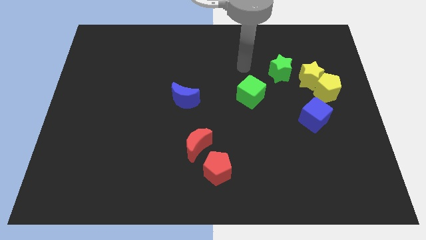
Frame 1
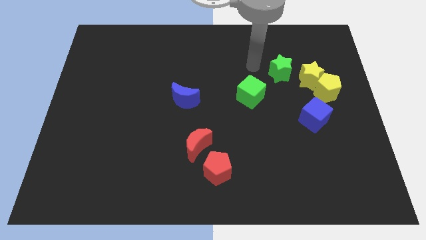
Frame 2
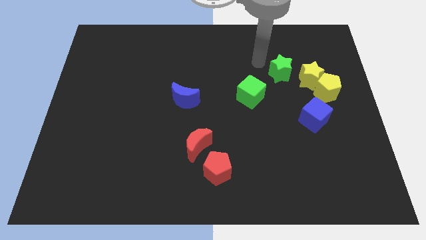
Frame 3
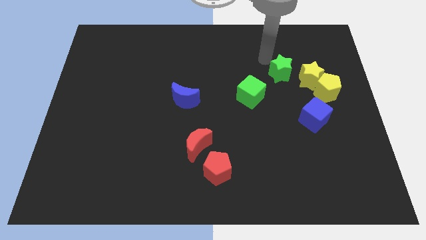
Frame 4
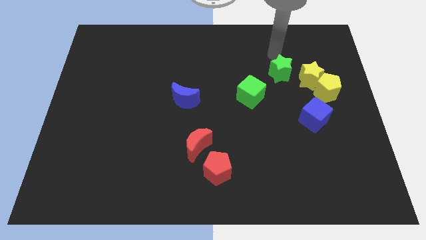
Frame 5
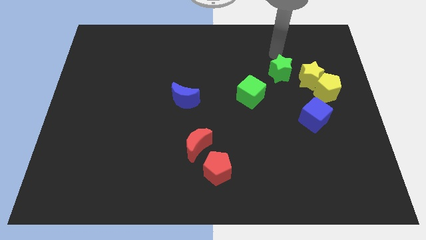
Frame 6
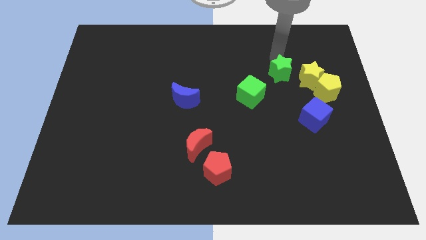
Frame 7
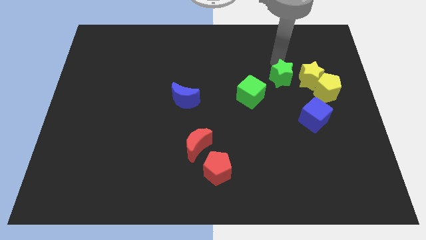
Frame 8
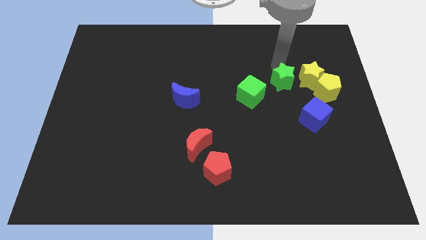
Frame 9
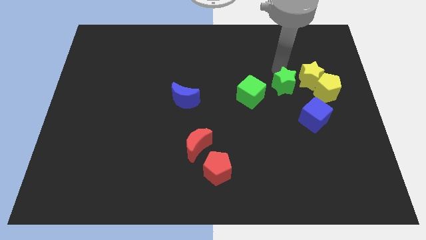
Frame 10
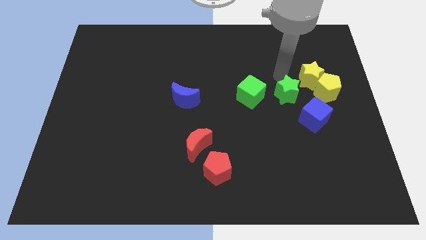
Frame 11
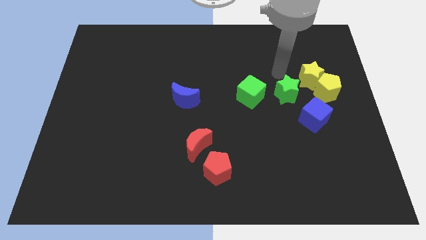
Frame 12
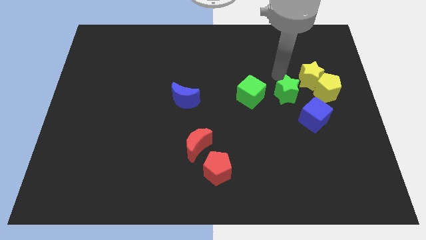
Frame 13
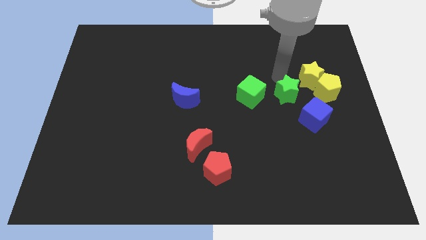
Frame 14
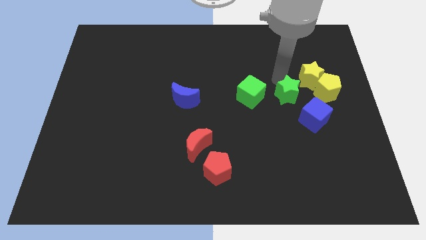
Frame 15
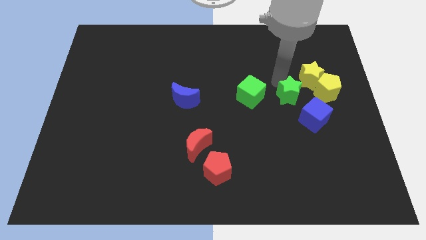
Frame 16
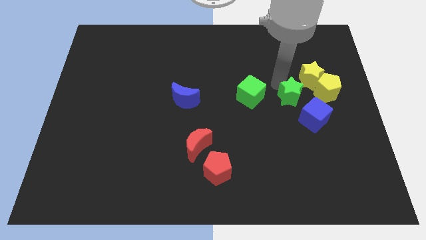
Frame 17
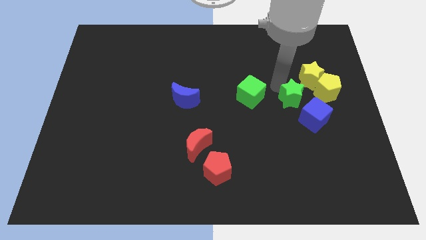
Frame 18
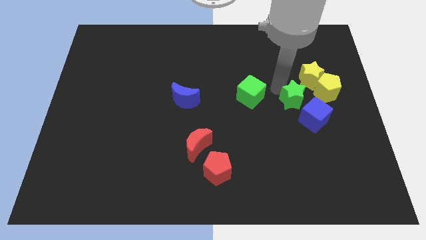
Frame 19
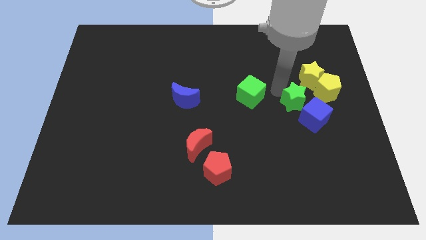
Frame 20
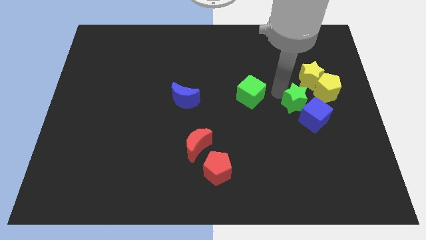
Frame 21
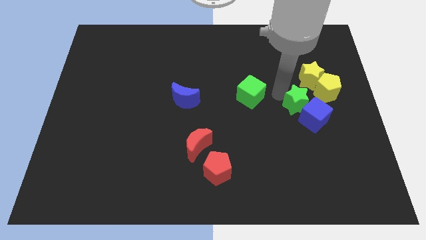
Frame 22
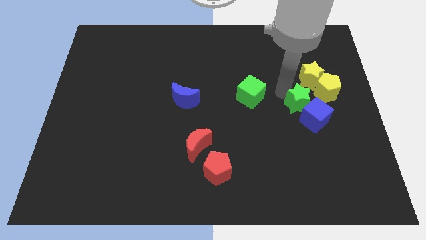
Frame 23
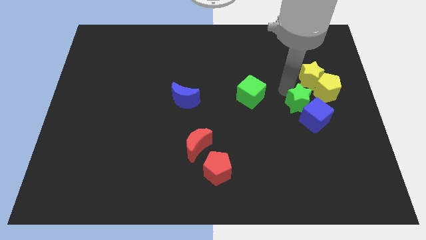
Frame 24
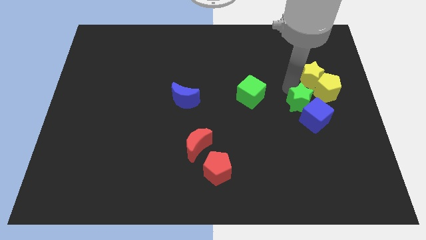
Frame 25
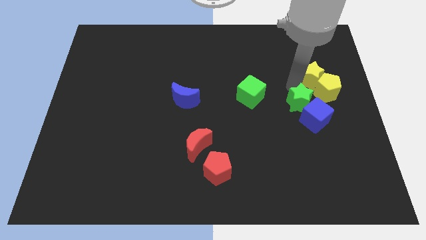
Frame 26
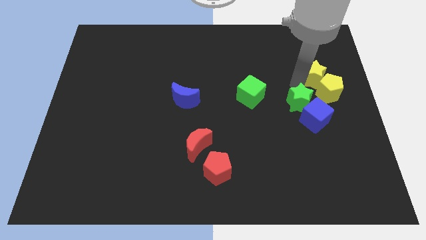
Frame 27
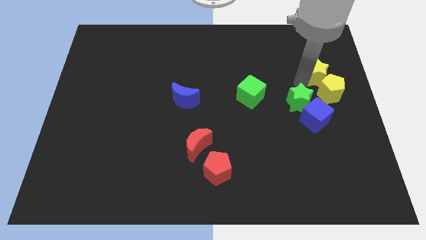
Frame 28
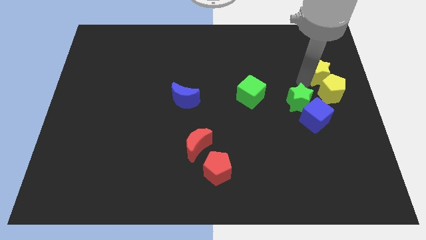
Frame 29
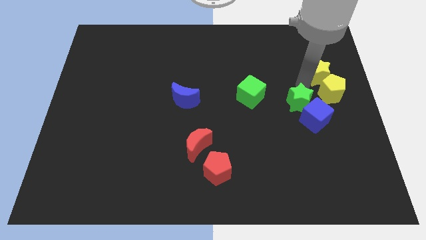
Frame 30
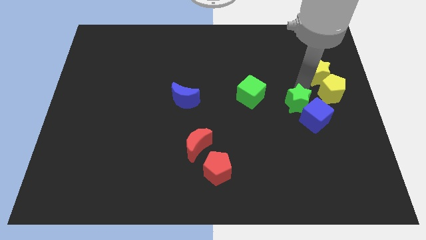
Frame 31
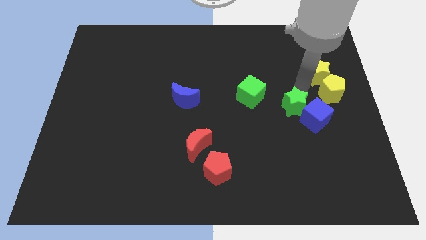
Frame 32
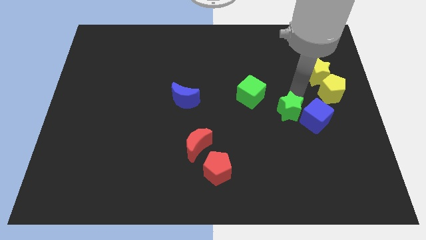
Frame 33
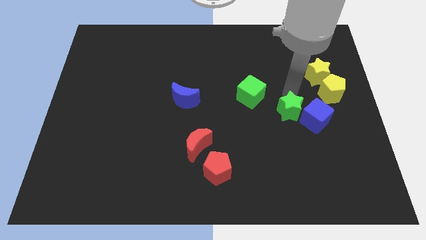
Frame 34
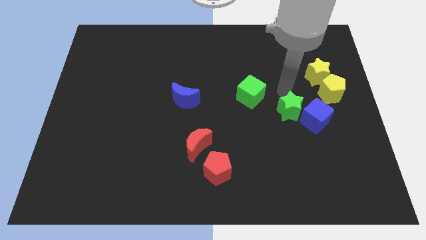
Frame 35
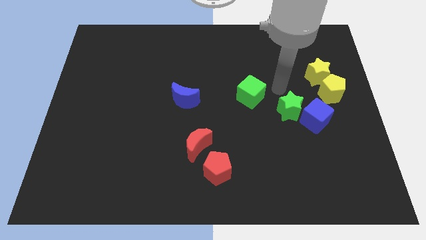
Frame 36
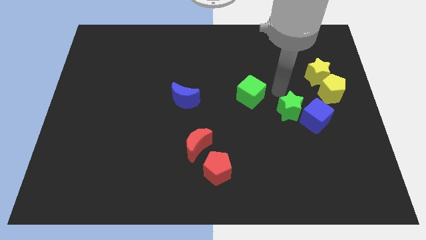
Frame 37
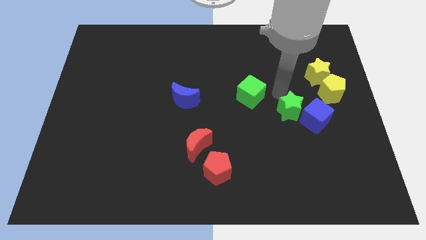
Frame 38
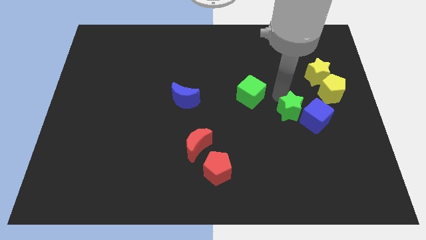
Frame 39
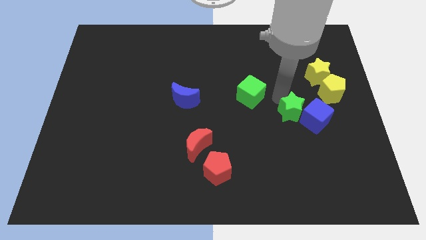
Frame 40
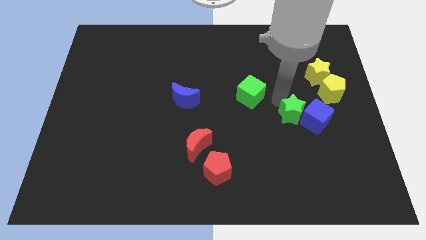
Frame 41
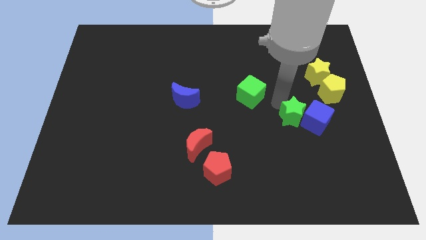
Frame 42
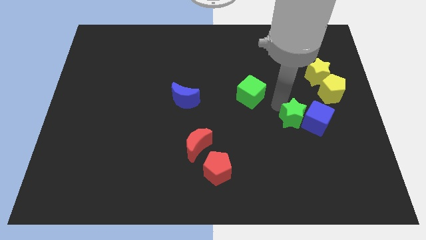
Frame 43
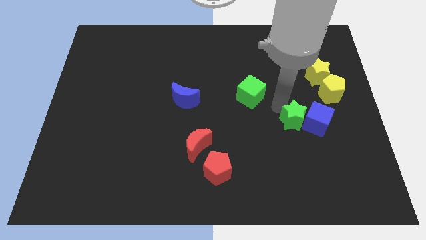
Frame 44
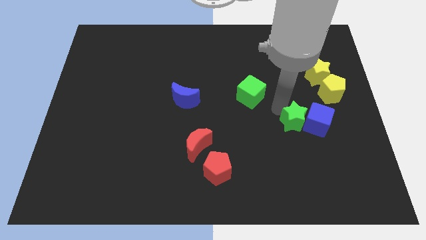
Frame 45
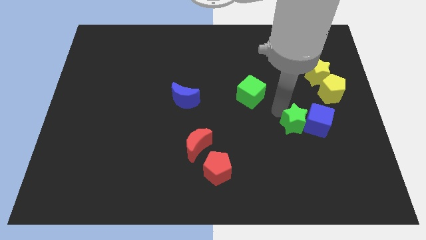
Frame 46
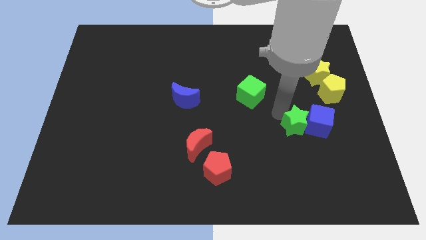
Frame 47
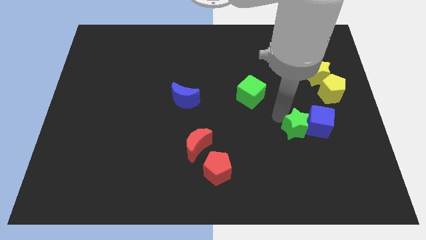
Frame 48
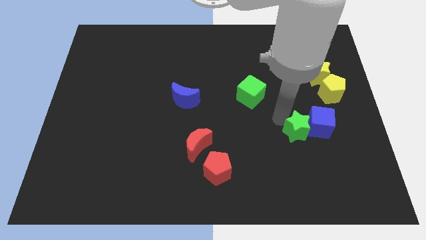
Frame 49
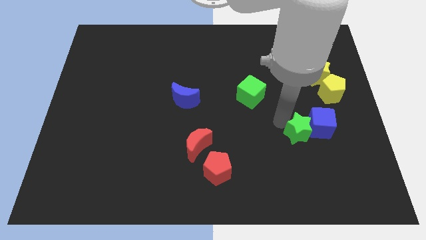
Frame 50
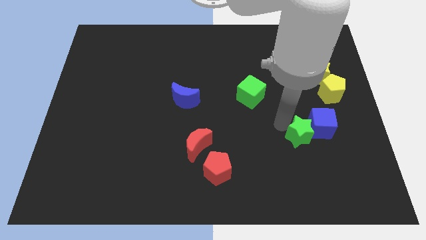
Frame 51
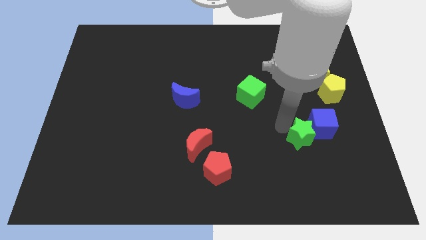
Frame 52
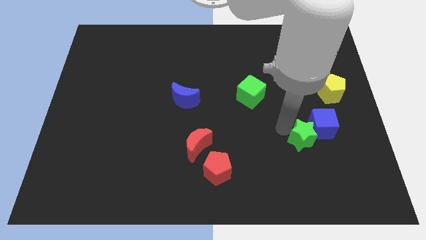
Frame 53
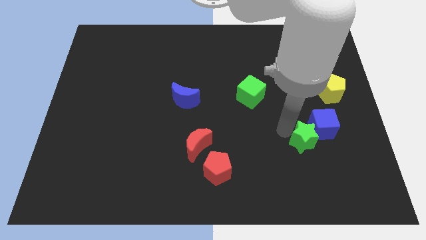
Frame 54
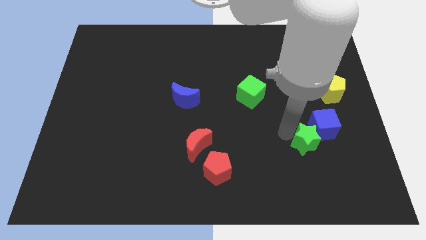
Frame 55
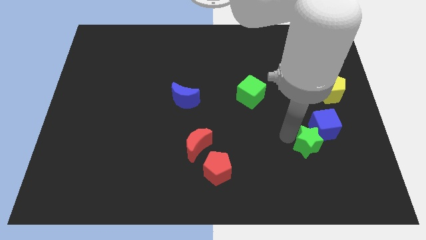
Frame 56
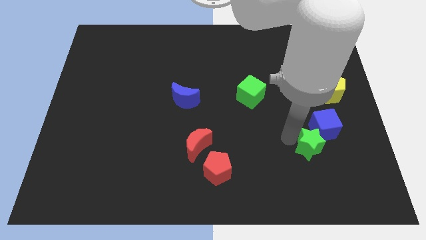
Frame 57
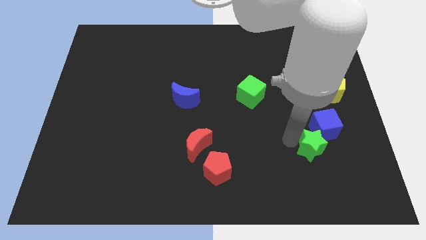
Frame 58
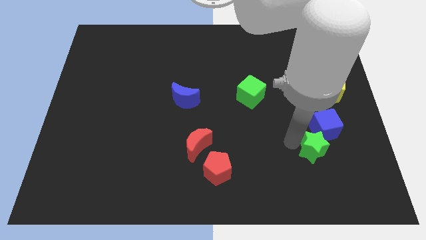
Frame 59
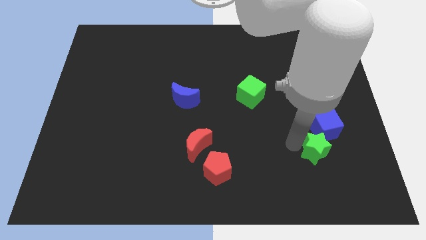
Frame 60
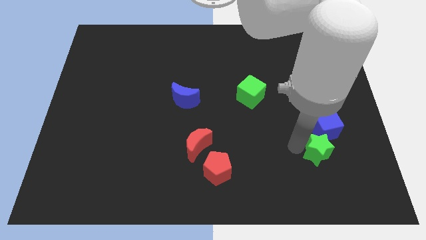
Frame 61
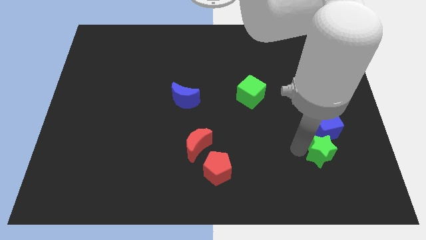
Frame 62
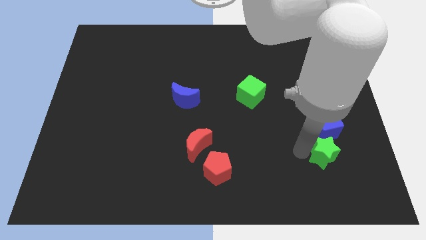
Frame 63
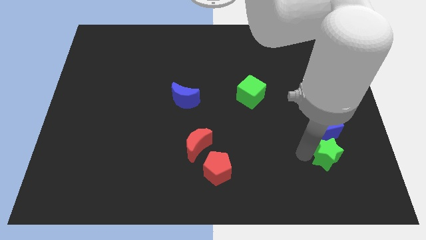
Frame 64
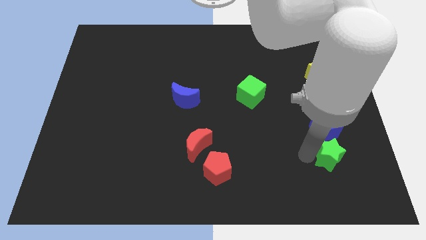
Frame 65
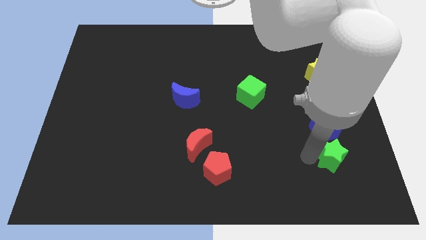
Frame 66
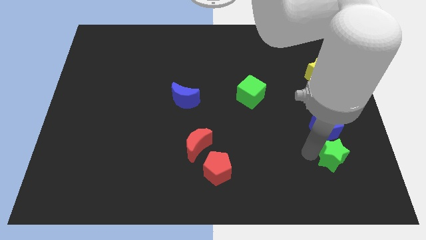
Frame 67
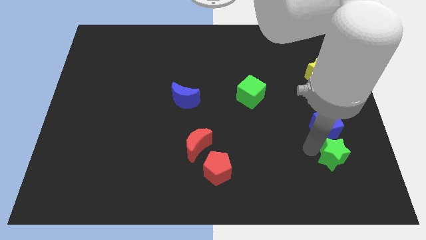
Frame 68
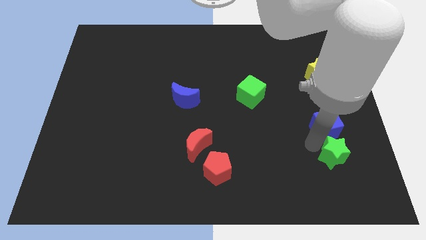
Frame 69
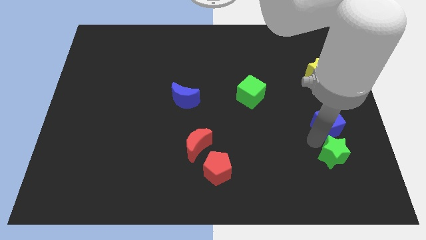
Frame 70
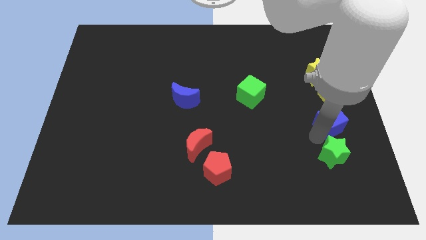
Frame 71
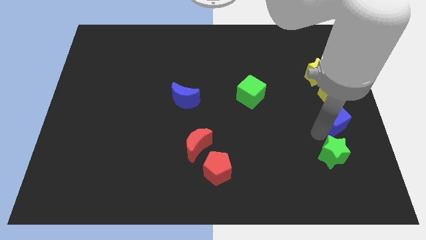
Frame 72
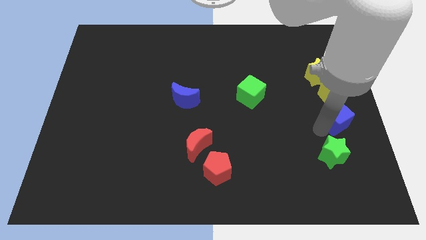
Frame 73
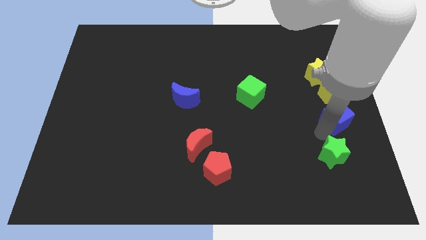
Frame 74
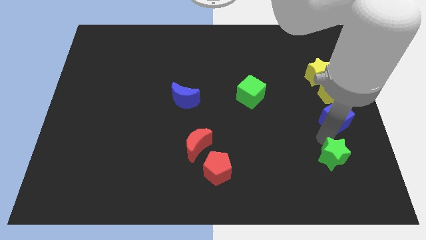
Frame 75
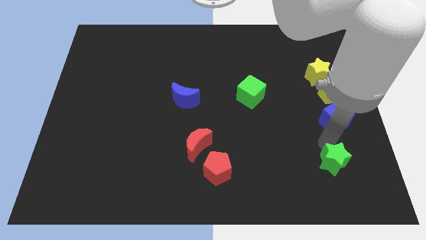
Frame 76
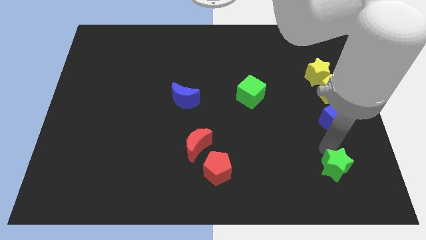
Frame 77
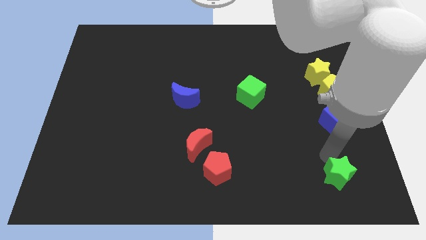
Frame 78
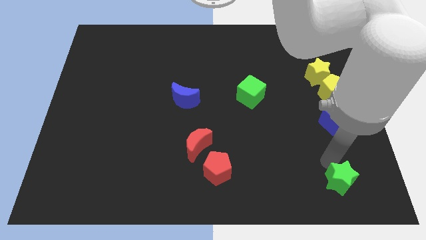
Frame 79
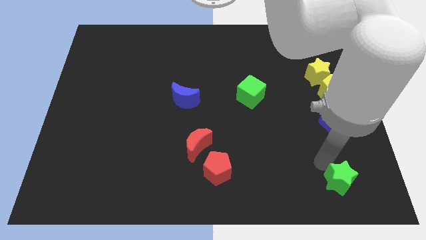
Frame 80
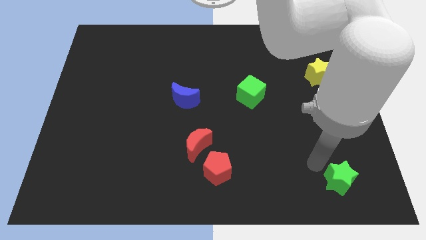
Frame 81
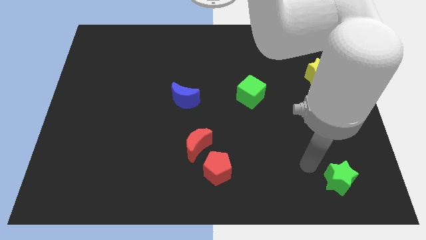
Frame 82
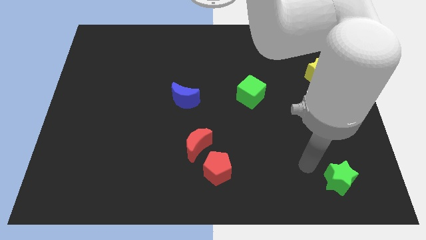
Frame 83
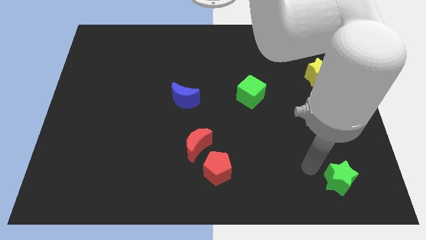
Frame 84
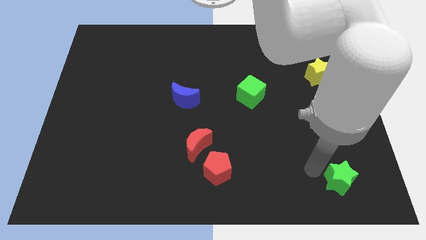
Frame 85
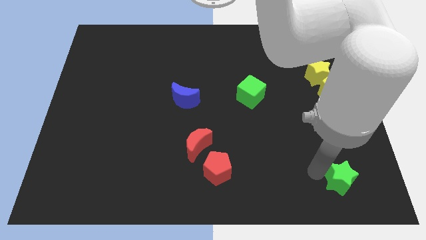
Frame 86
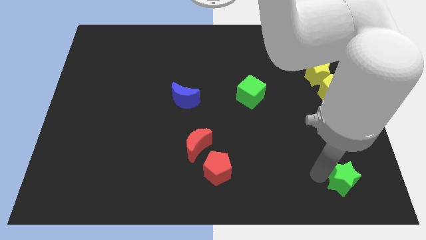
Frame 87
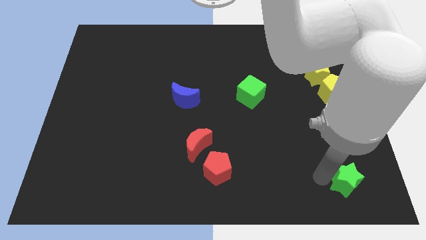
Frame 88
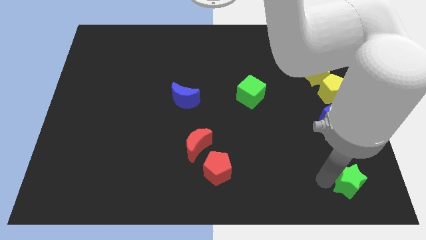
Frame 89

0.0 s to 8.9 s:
put the green star to the bottom right of the board
